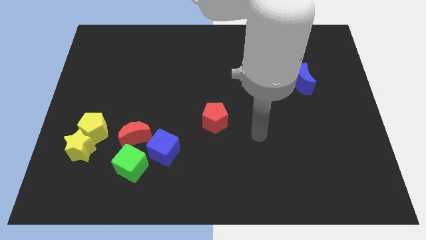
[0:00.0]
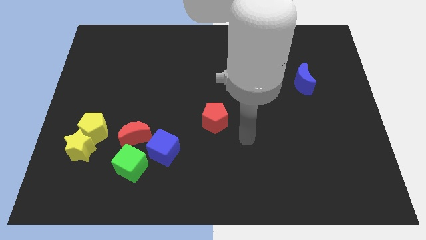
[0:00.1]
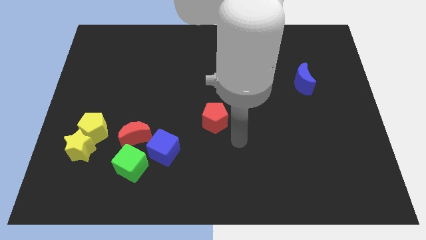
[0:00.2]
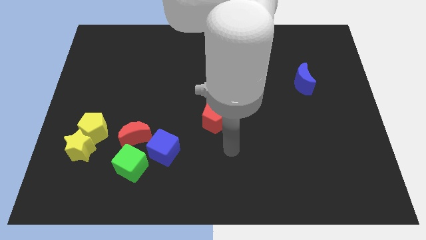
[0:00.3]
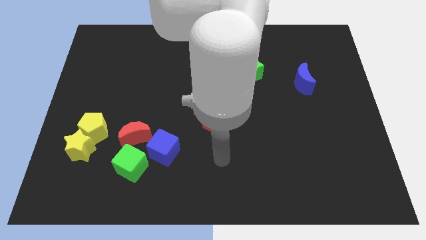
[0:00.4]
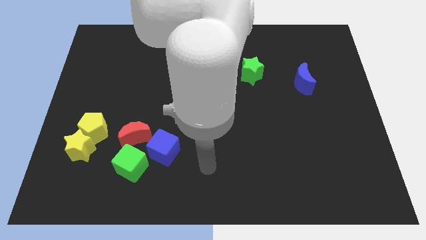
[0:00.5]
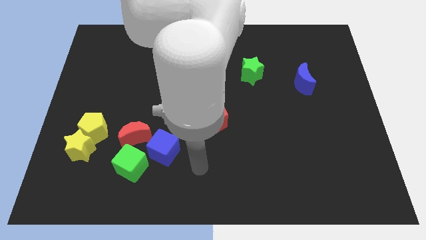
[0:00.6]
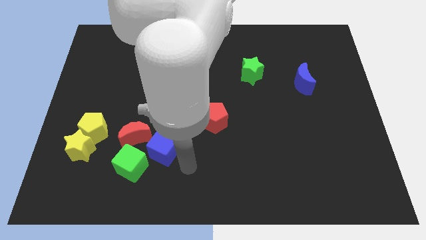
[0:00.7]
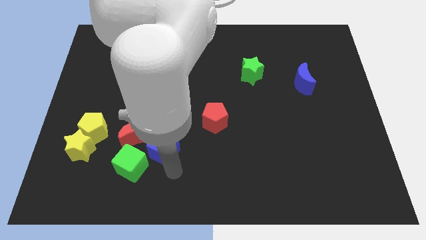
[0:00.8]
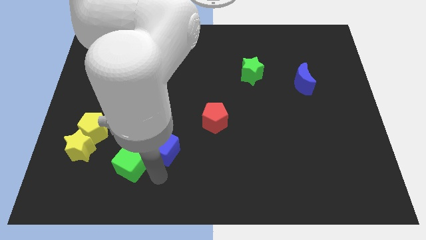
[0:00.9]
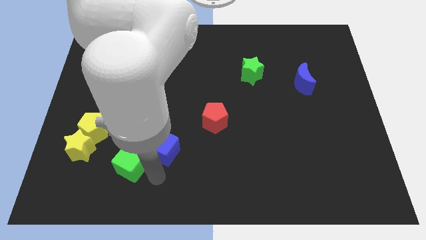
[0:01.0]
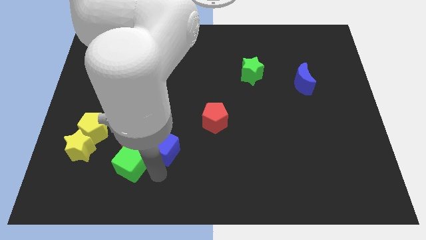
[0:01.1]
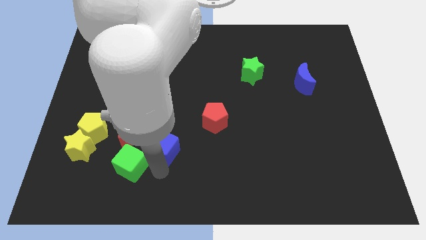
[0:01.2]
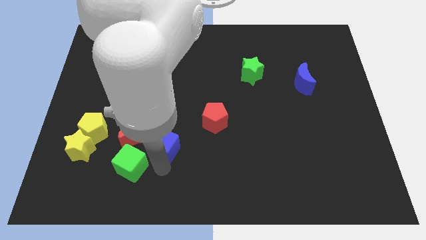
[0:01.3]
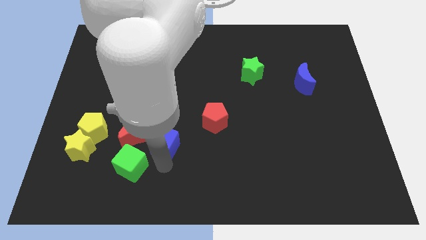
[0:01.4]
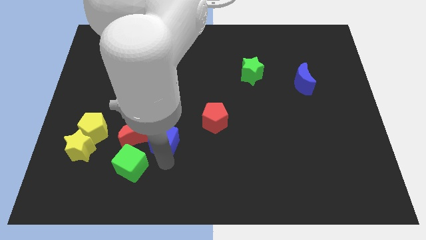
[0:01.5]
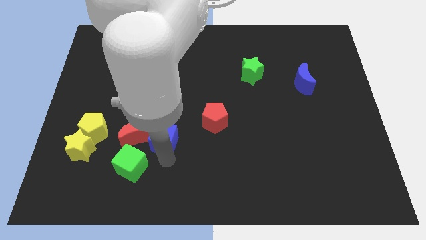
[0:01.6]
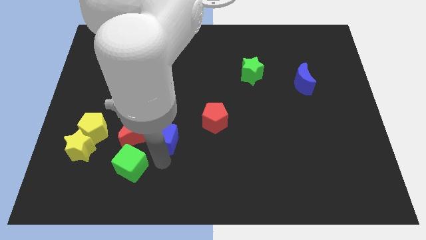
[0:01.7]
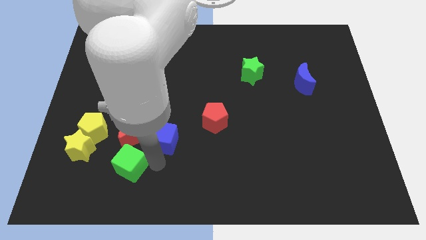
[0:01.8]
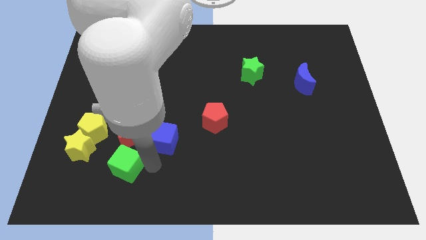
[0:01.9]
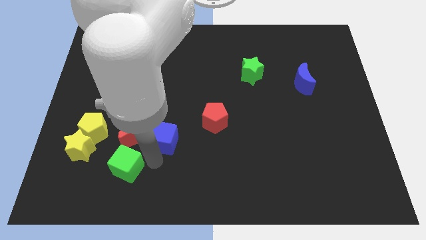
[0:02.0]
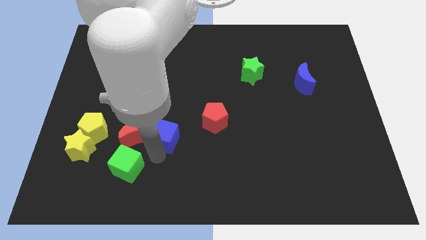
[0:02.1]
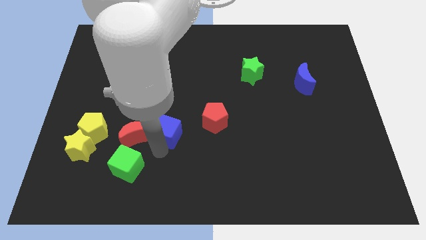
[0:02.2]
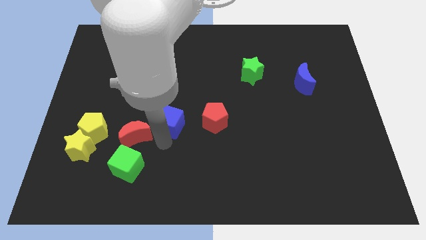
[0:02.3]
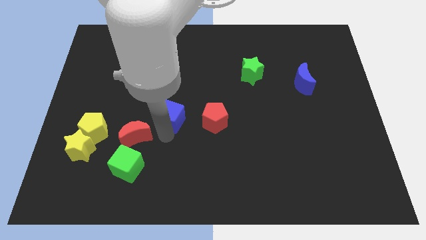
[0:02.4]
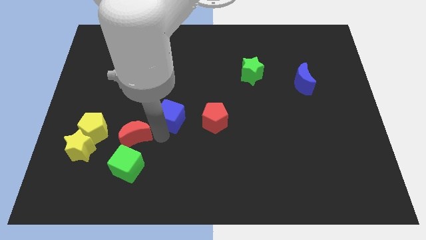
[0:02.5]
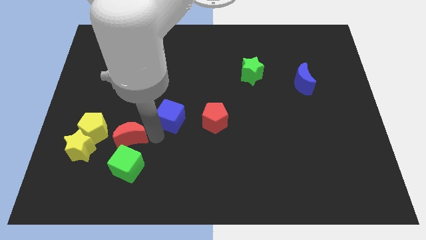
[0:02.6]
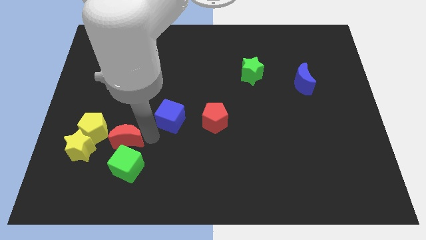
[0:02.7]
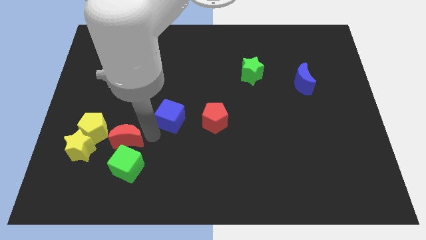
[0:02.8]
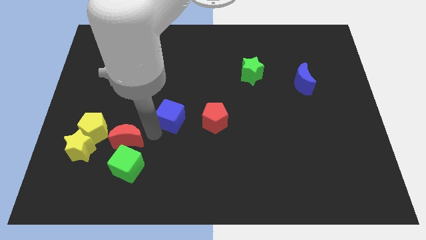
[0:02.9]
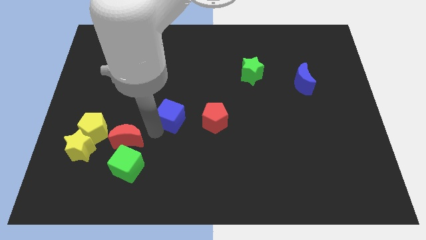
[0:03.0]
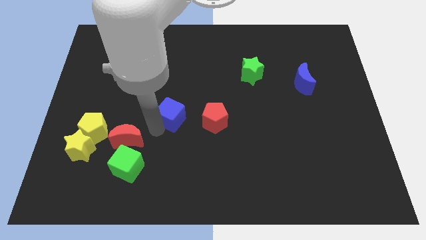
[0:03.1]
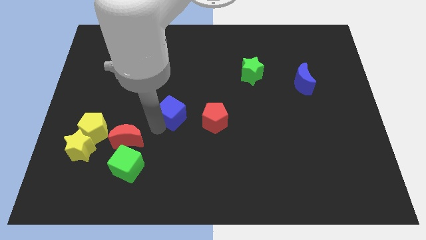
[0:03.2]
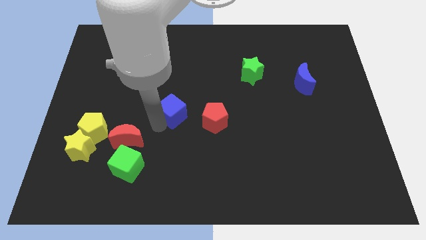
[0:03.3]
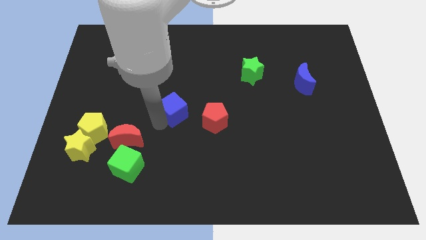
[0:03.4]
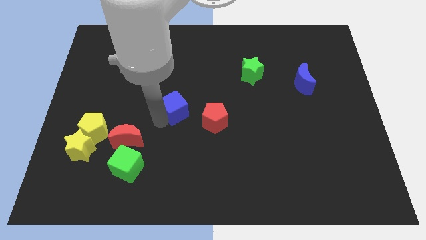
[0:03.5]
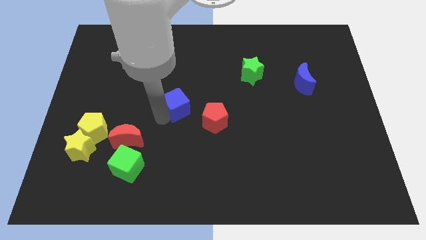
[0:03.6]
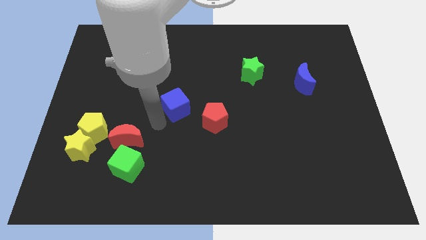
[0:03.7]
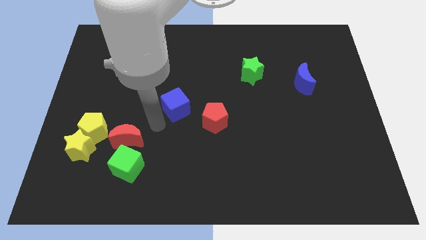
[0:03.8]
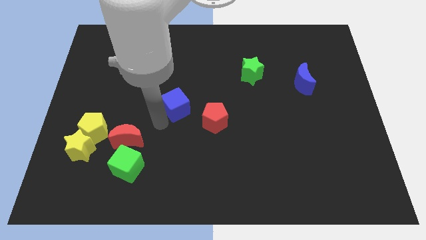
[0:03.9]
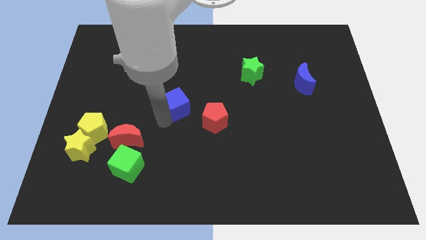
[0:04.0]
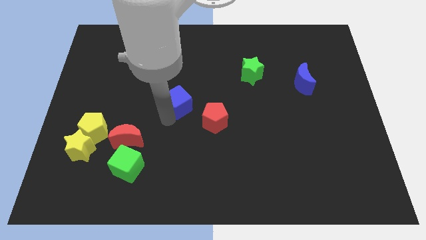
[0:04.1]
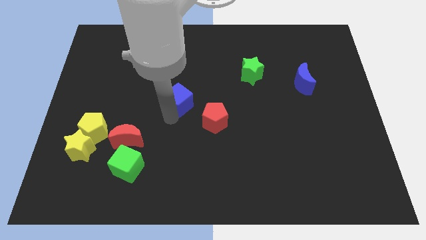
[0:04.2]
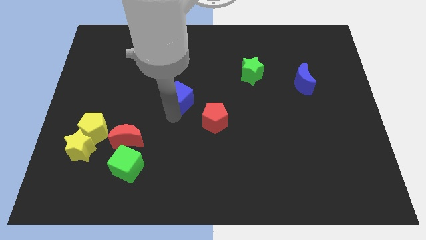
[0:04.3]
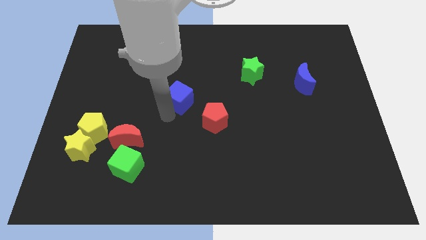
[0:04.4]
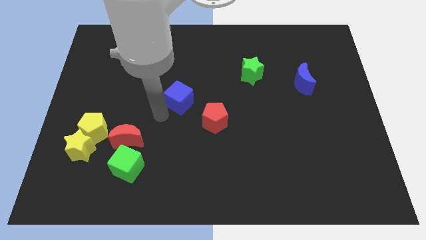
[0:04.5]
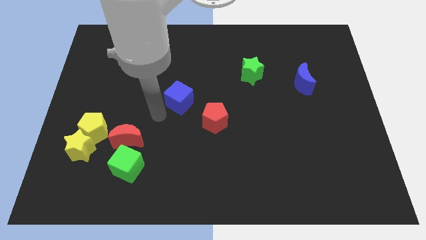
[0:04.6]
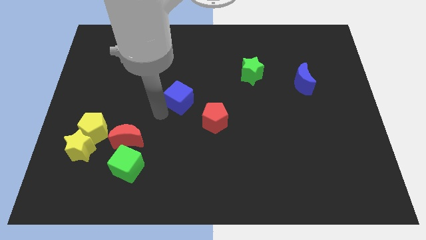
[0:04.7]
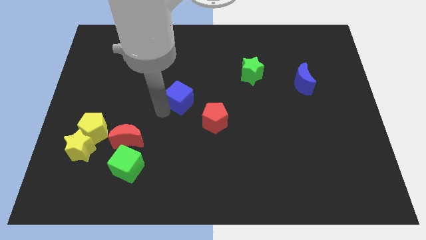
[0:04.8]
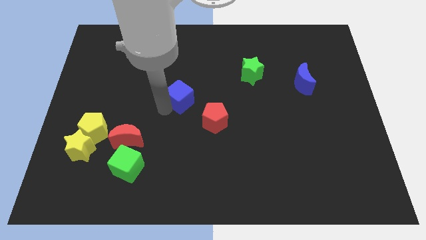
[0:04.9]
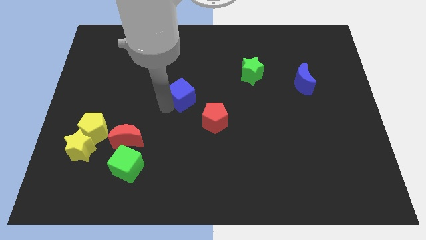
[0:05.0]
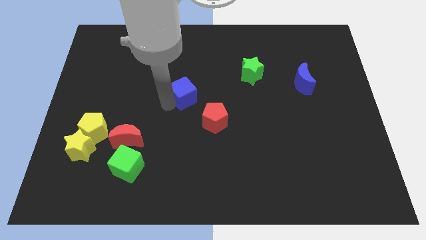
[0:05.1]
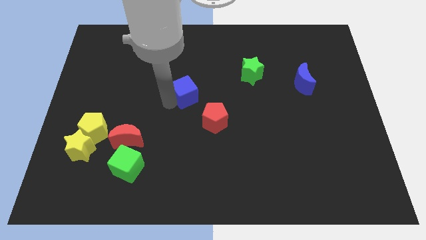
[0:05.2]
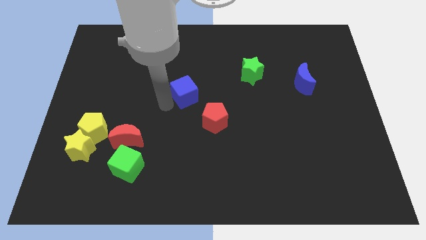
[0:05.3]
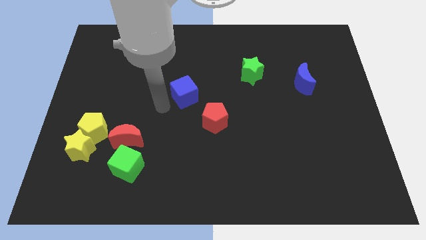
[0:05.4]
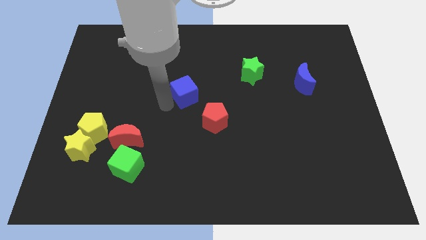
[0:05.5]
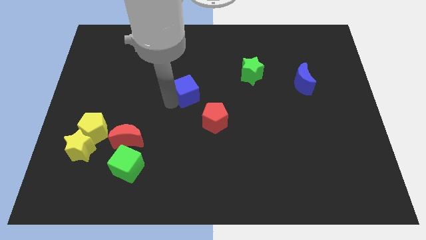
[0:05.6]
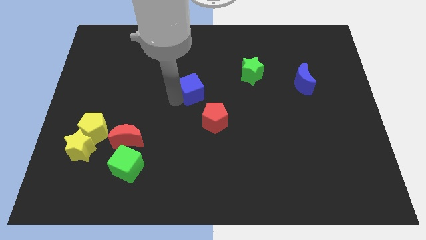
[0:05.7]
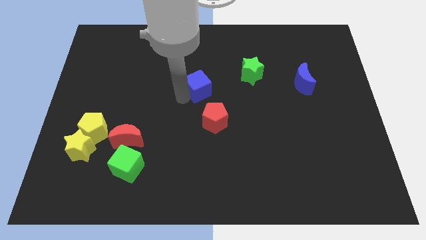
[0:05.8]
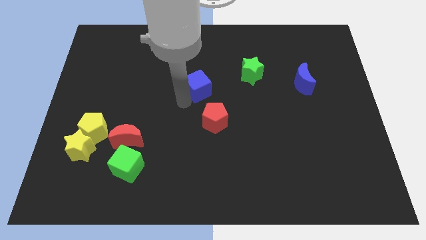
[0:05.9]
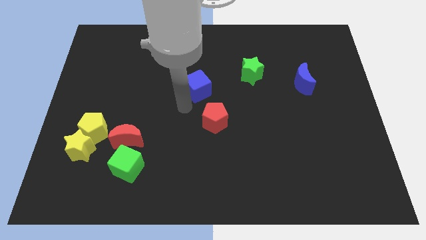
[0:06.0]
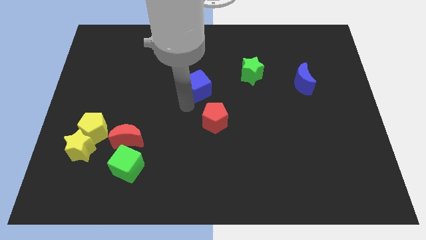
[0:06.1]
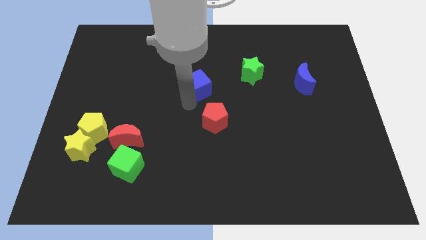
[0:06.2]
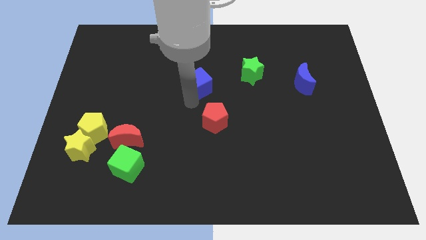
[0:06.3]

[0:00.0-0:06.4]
slide the blue cube to the left side of the green star
